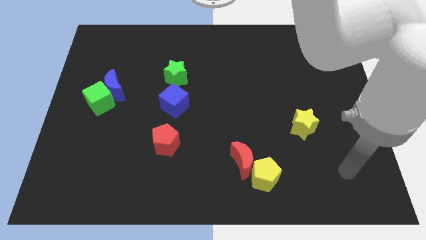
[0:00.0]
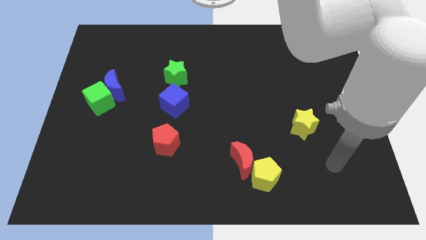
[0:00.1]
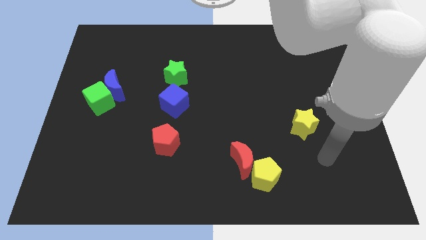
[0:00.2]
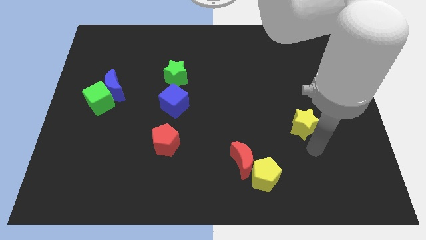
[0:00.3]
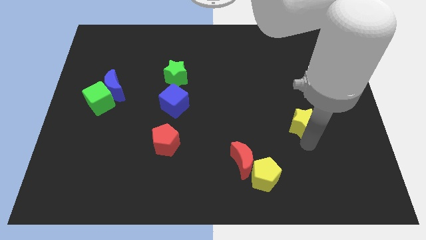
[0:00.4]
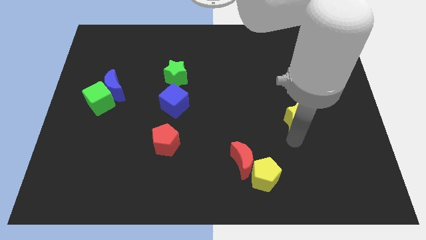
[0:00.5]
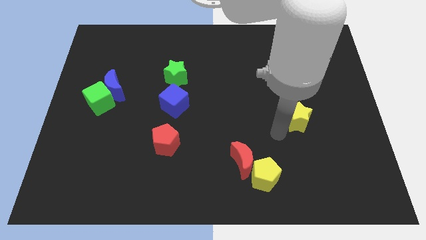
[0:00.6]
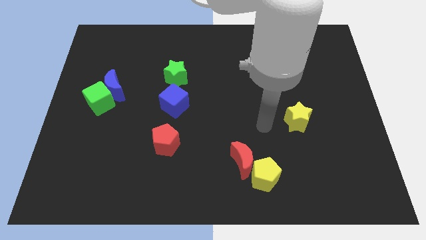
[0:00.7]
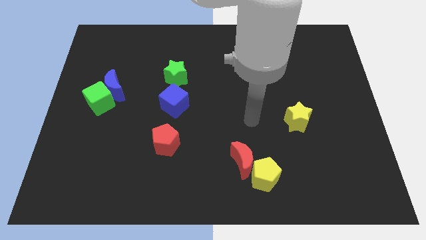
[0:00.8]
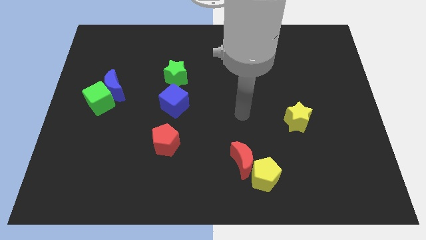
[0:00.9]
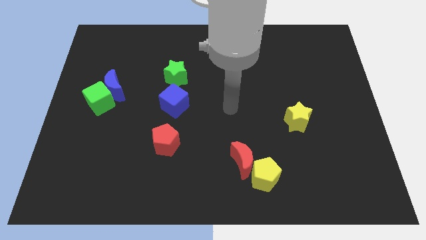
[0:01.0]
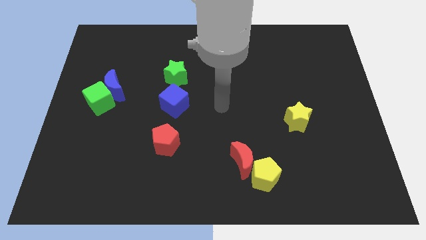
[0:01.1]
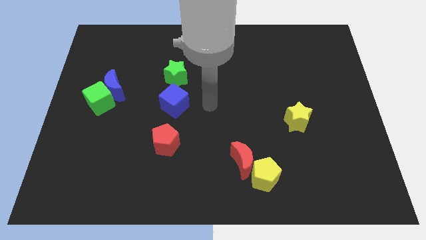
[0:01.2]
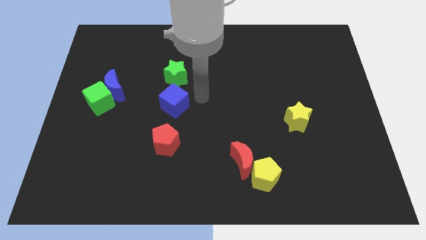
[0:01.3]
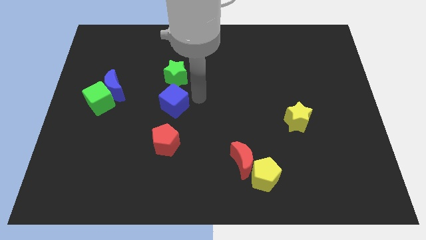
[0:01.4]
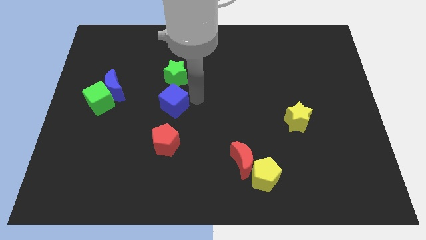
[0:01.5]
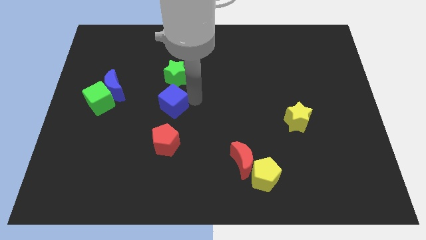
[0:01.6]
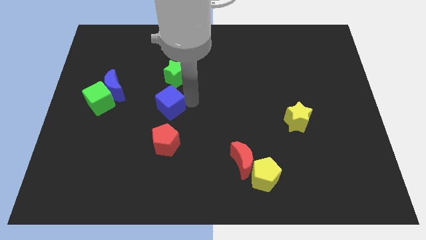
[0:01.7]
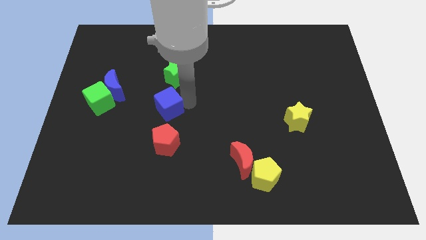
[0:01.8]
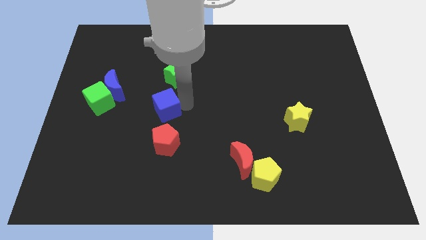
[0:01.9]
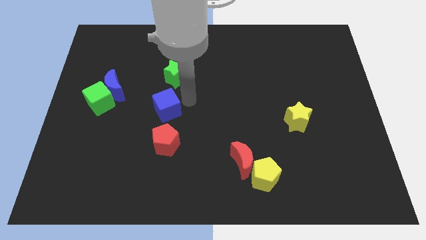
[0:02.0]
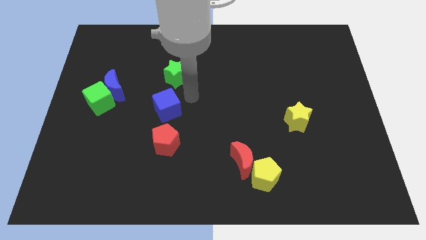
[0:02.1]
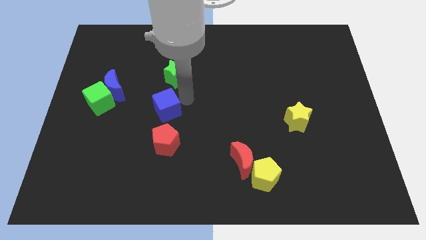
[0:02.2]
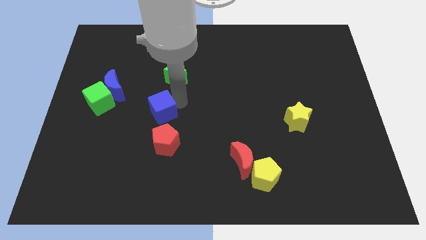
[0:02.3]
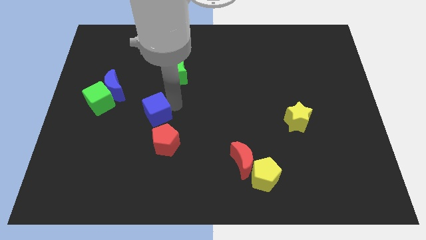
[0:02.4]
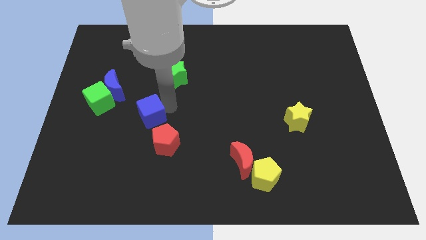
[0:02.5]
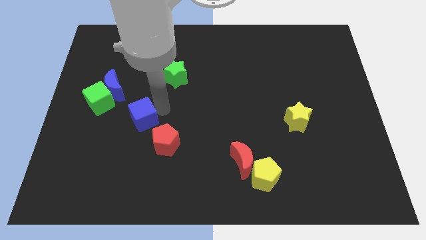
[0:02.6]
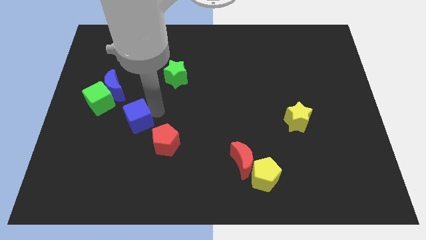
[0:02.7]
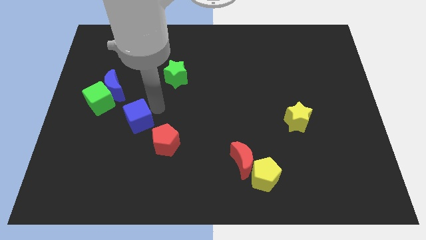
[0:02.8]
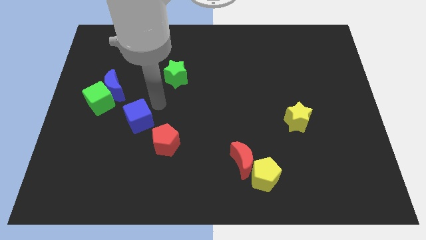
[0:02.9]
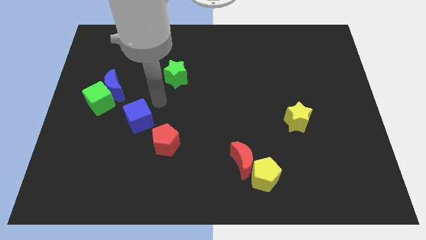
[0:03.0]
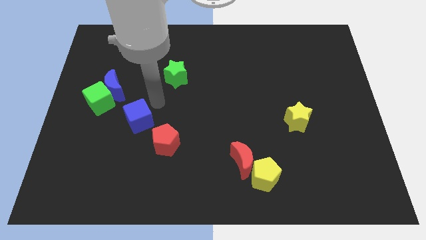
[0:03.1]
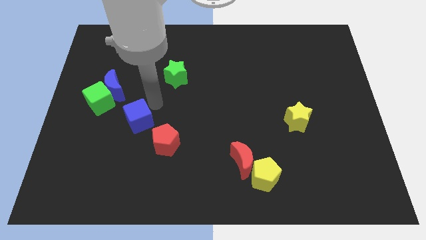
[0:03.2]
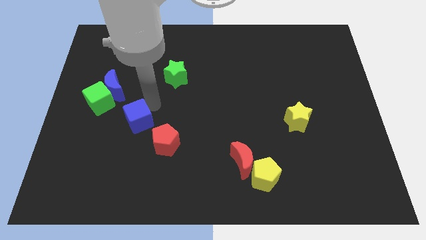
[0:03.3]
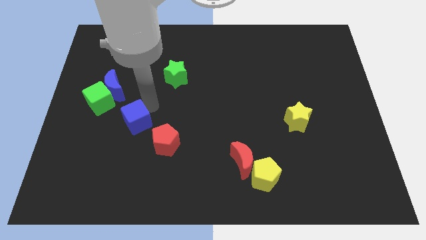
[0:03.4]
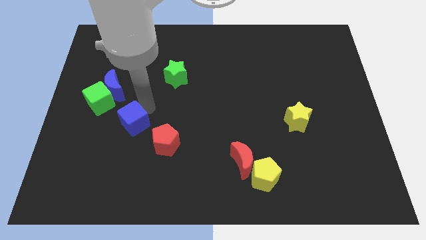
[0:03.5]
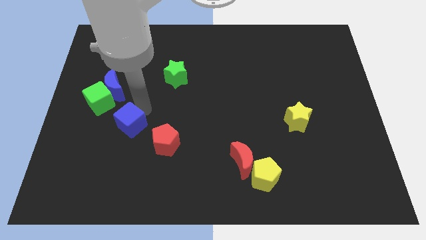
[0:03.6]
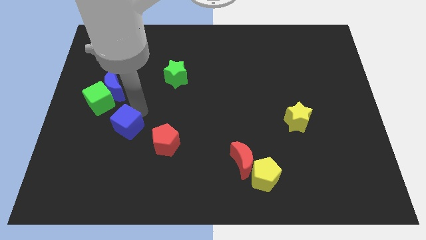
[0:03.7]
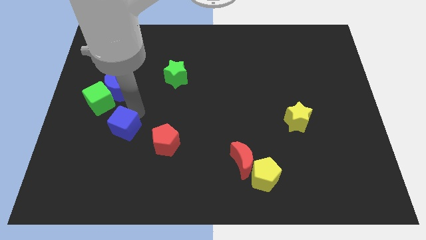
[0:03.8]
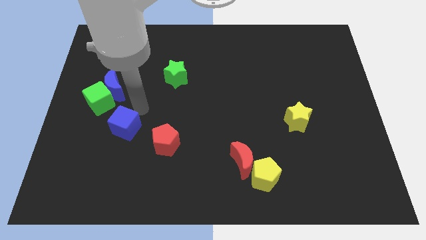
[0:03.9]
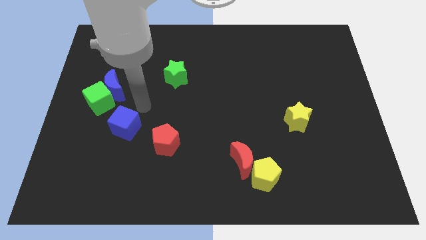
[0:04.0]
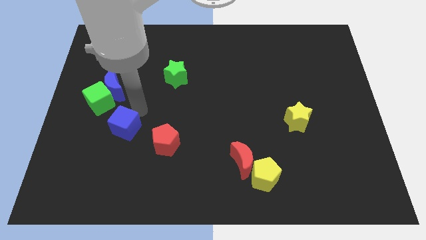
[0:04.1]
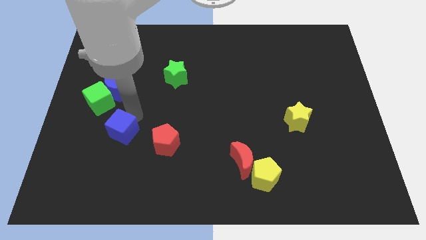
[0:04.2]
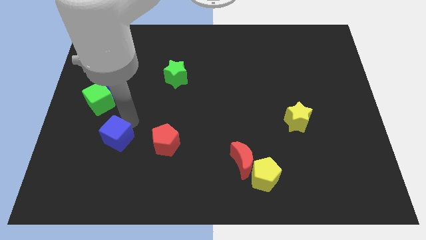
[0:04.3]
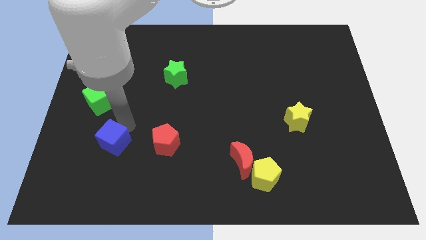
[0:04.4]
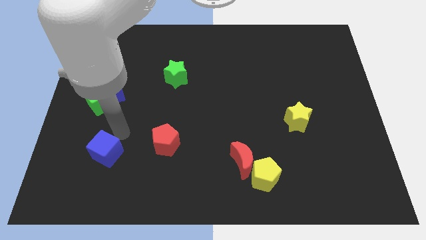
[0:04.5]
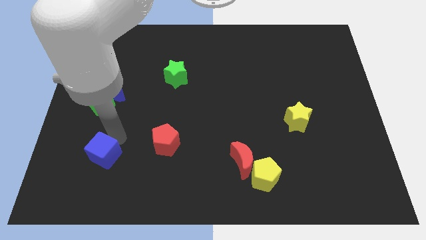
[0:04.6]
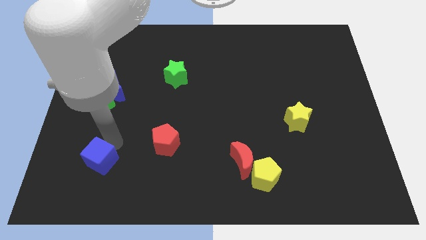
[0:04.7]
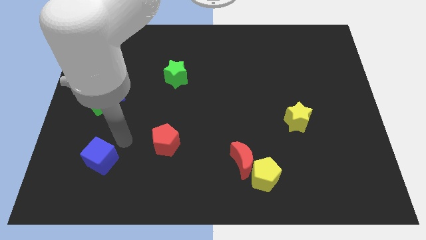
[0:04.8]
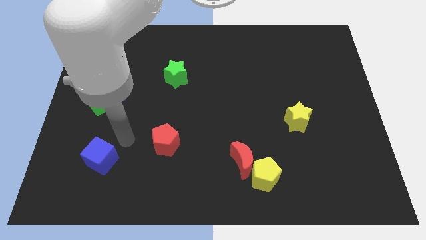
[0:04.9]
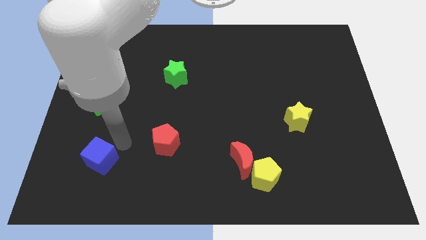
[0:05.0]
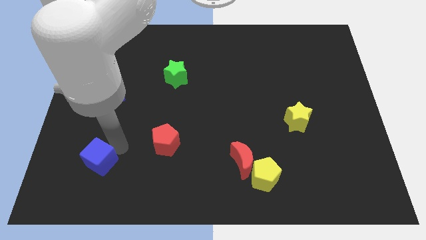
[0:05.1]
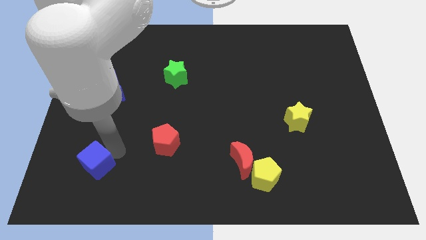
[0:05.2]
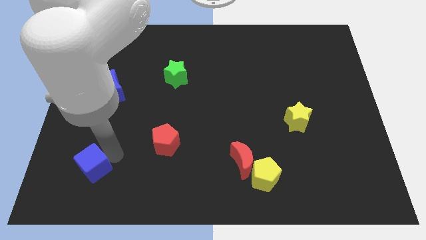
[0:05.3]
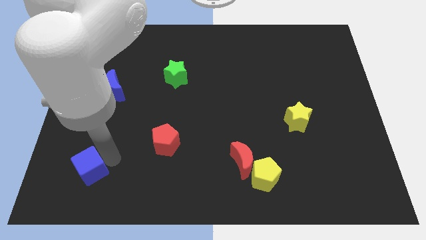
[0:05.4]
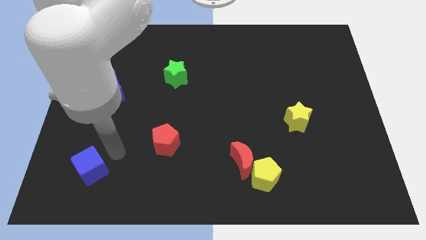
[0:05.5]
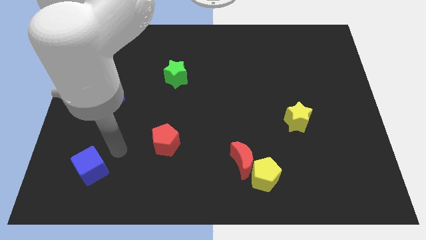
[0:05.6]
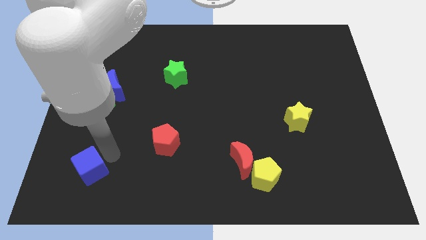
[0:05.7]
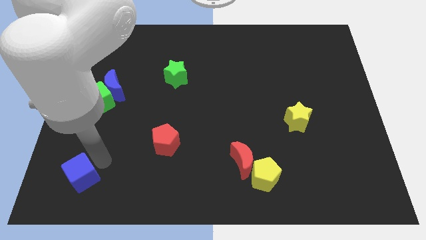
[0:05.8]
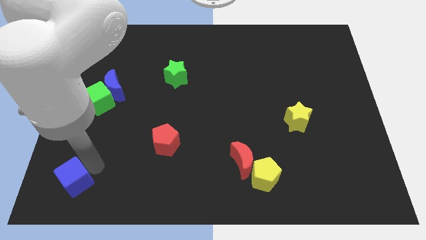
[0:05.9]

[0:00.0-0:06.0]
put the blue cube to the bottom left of the board
